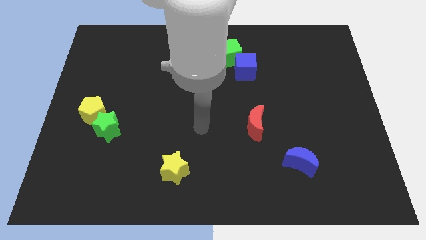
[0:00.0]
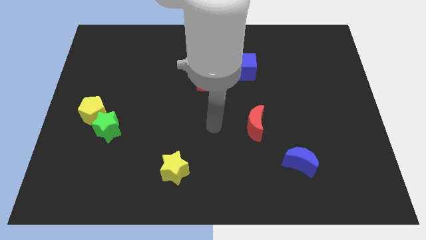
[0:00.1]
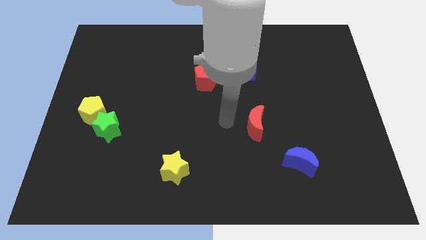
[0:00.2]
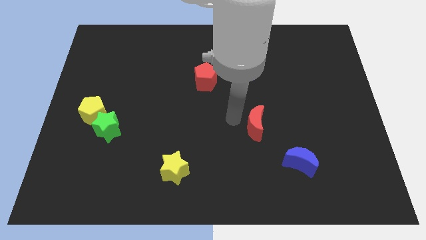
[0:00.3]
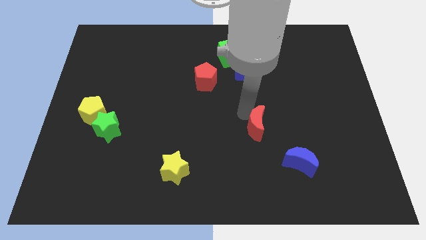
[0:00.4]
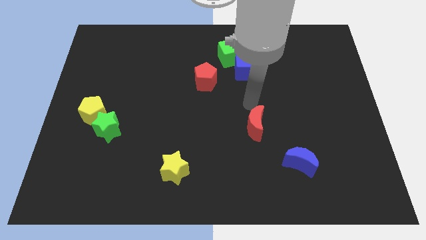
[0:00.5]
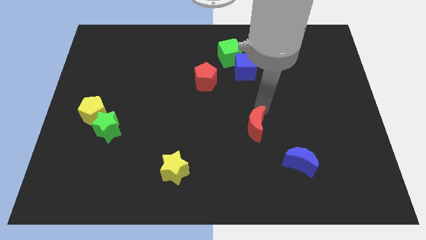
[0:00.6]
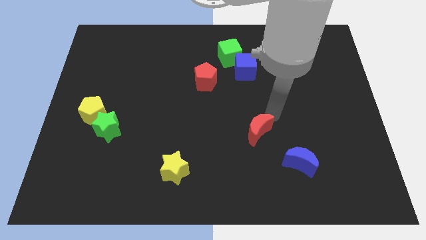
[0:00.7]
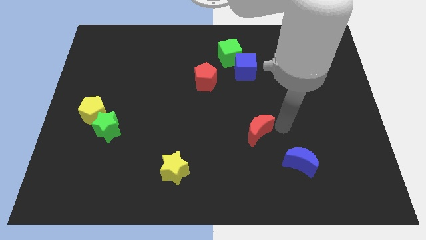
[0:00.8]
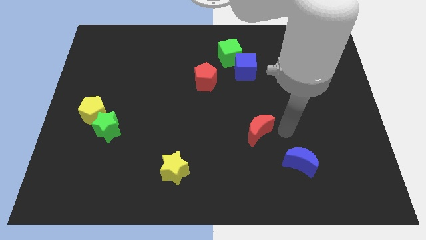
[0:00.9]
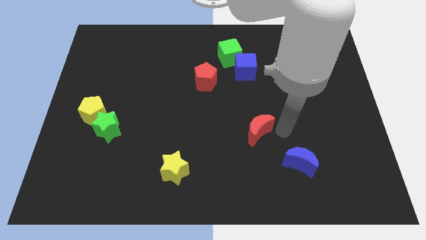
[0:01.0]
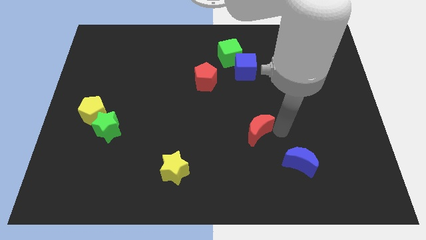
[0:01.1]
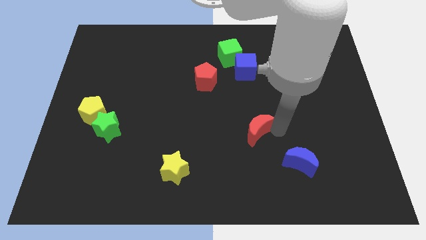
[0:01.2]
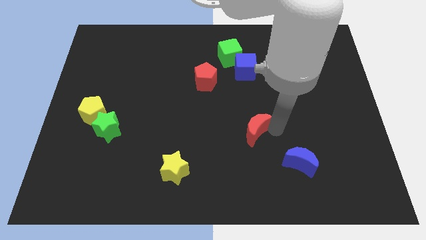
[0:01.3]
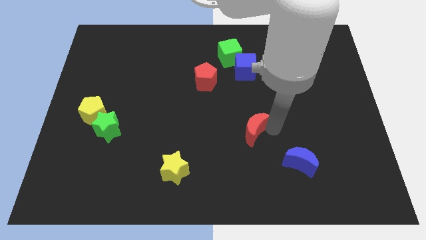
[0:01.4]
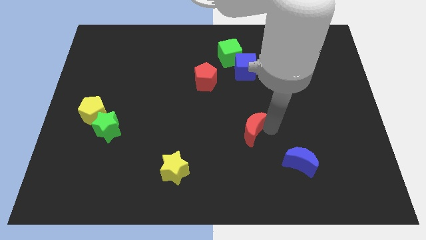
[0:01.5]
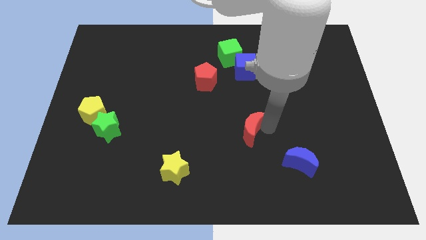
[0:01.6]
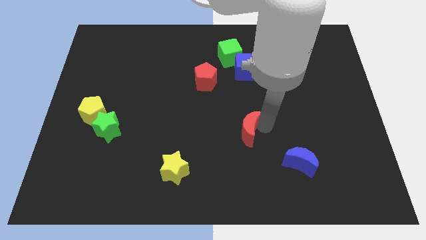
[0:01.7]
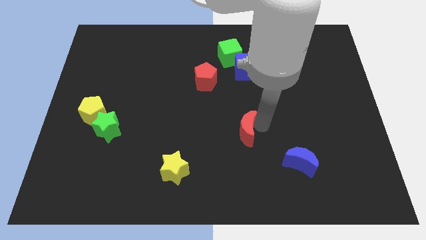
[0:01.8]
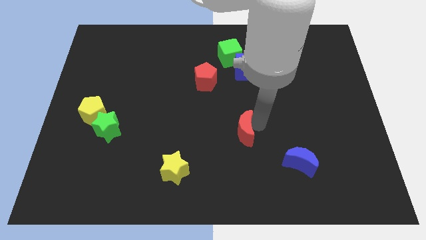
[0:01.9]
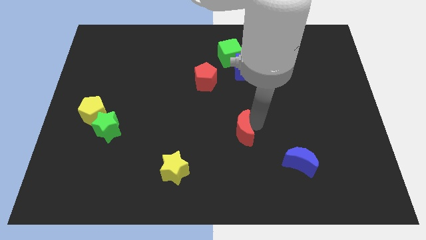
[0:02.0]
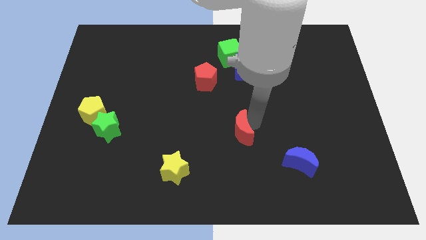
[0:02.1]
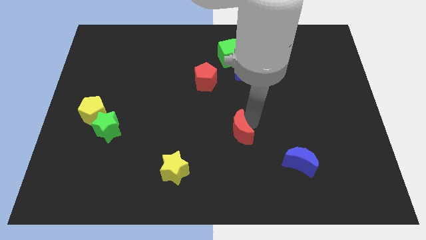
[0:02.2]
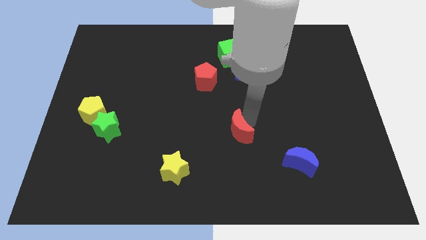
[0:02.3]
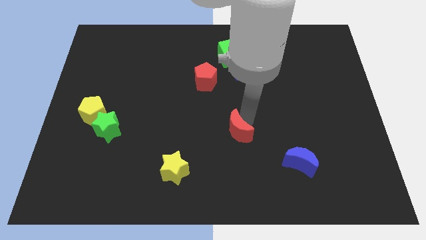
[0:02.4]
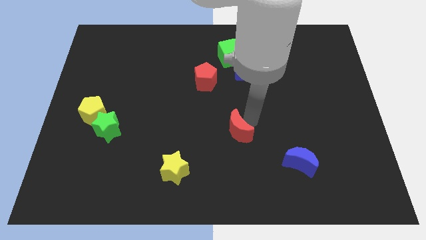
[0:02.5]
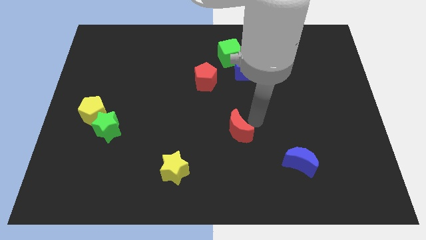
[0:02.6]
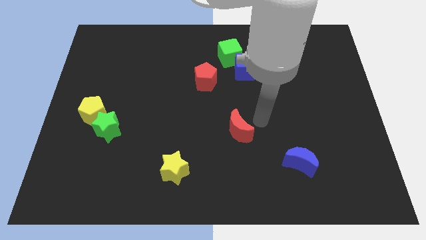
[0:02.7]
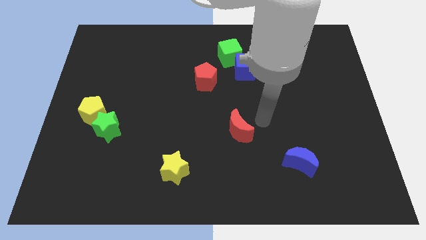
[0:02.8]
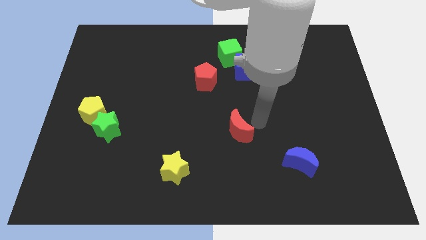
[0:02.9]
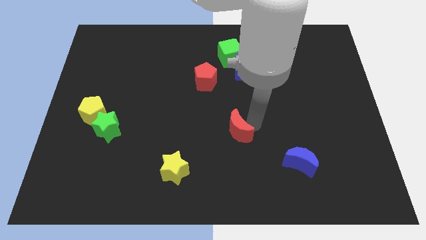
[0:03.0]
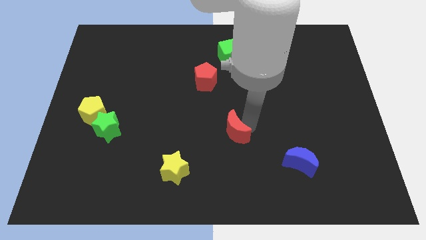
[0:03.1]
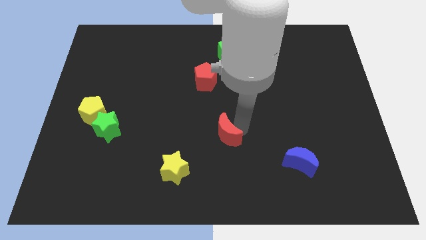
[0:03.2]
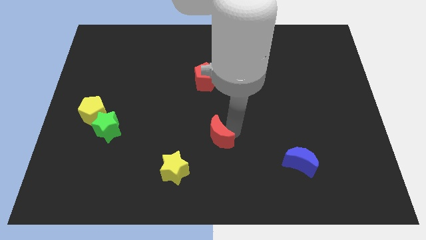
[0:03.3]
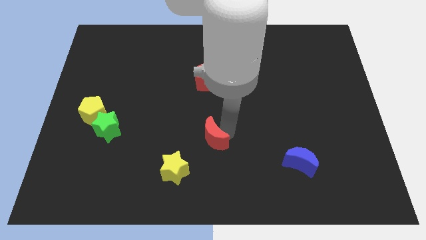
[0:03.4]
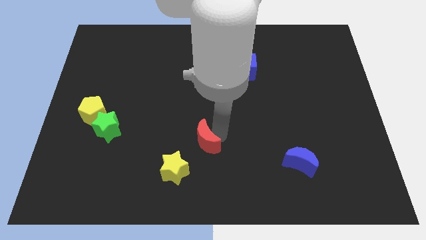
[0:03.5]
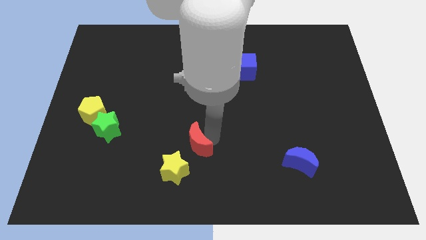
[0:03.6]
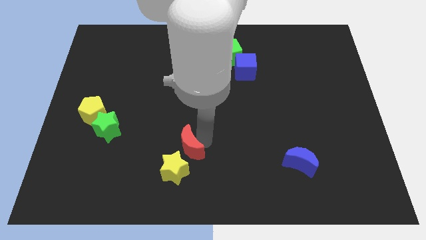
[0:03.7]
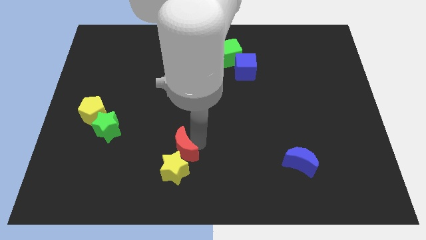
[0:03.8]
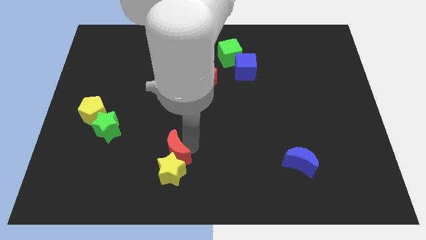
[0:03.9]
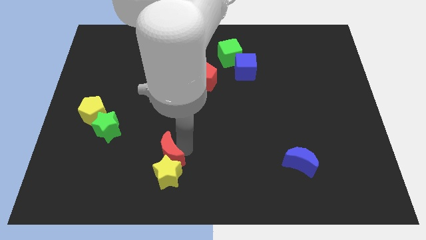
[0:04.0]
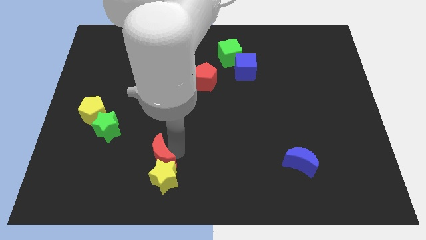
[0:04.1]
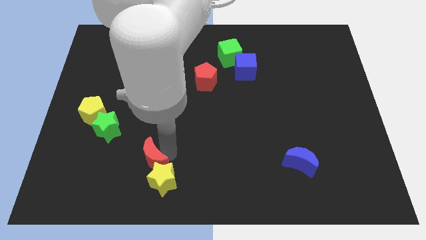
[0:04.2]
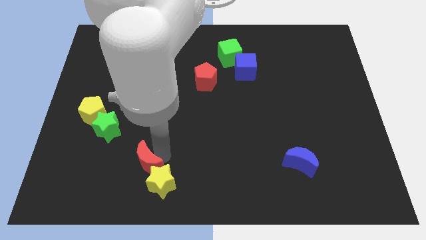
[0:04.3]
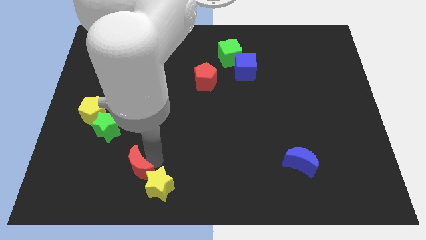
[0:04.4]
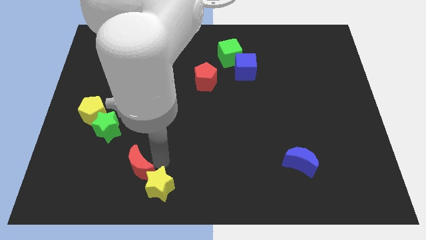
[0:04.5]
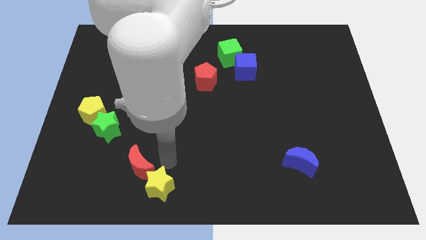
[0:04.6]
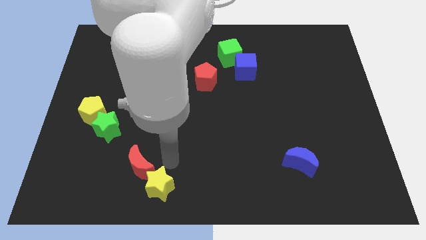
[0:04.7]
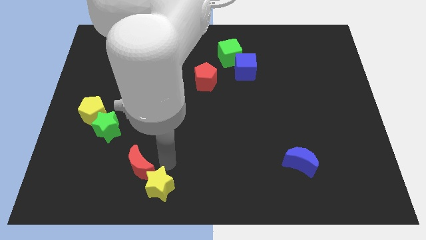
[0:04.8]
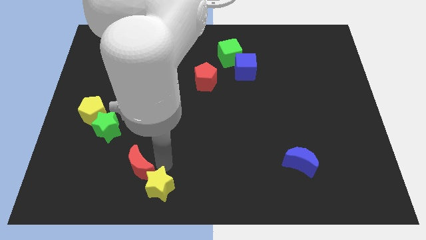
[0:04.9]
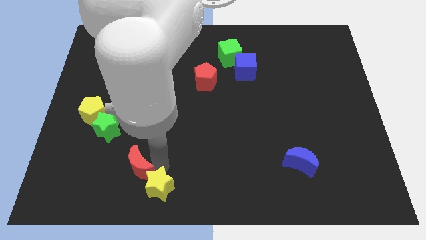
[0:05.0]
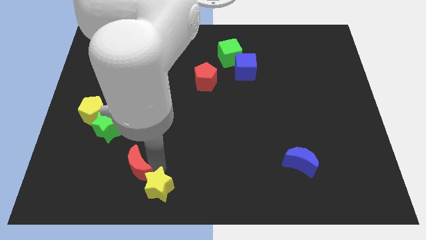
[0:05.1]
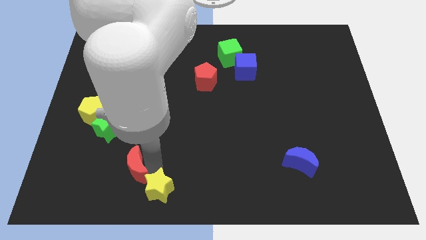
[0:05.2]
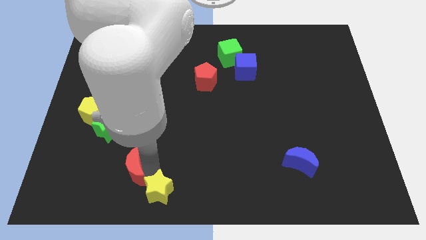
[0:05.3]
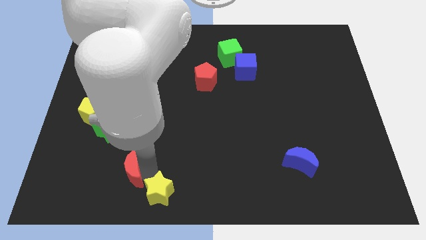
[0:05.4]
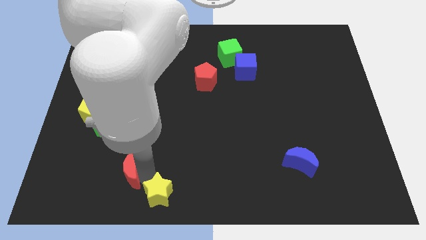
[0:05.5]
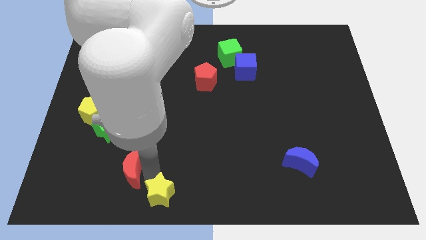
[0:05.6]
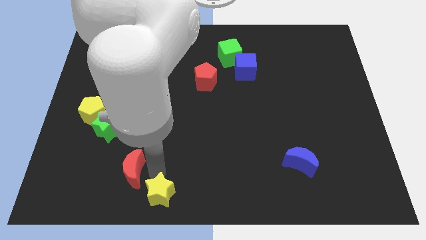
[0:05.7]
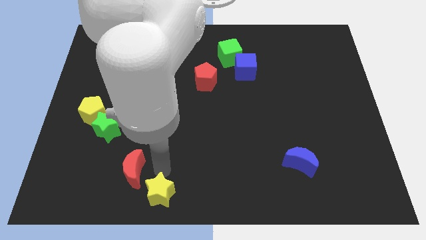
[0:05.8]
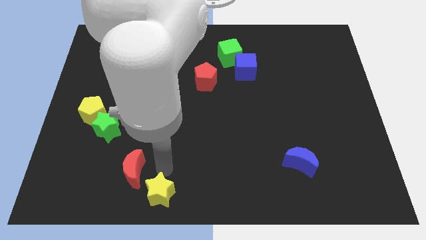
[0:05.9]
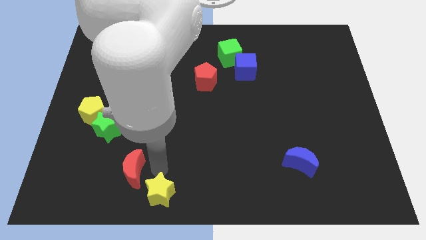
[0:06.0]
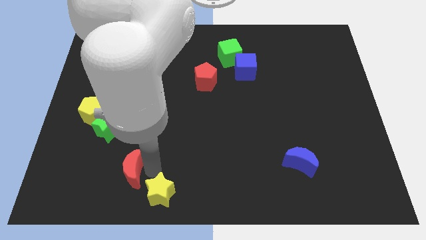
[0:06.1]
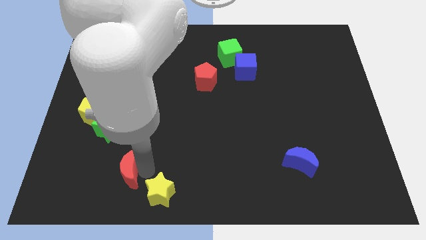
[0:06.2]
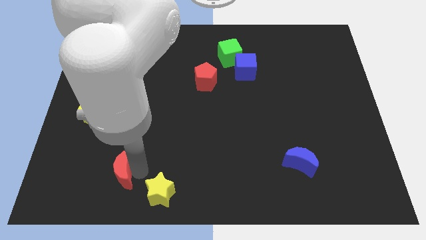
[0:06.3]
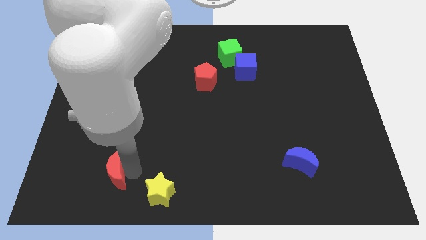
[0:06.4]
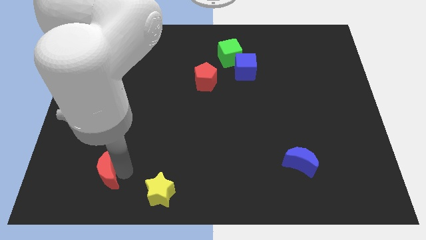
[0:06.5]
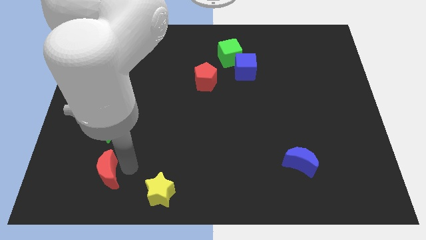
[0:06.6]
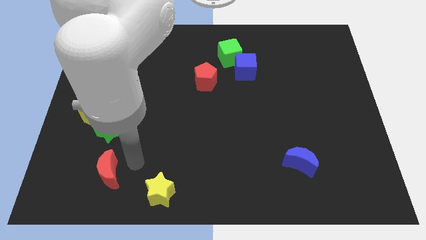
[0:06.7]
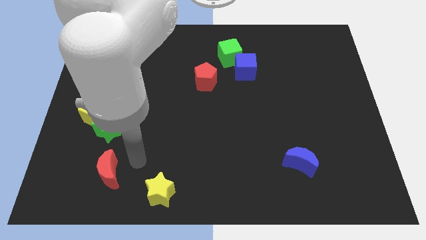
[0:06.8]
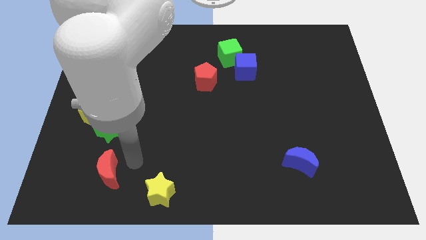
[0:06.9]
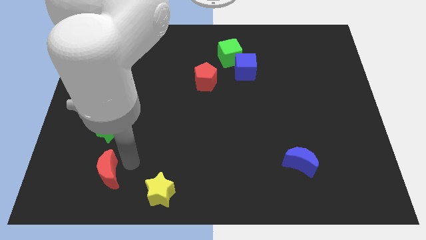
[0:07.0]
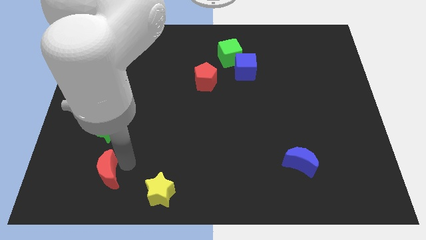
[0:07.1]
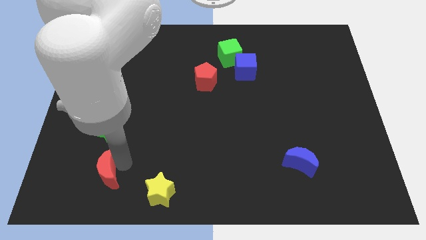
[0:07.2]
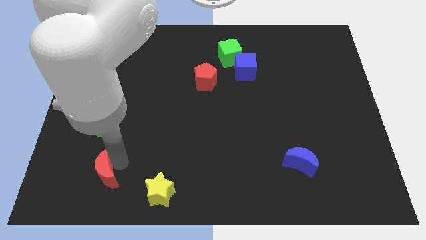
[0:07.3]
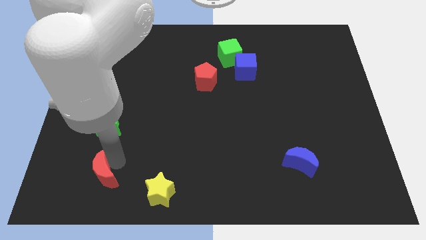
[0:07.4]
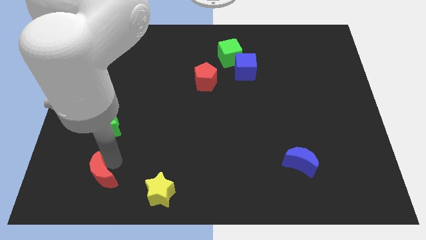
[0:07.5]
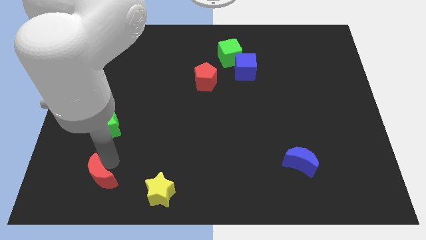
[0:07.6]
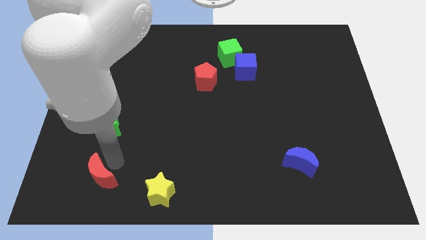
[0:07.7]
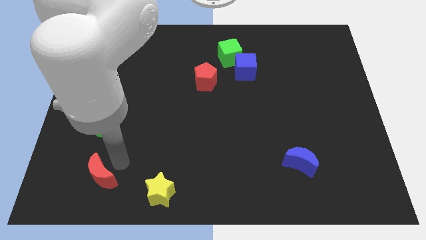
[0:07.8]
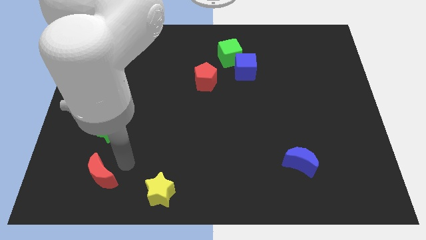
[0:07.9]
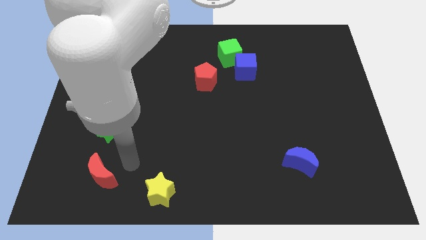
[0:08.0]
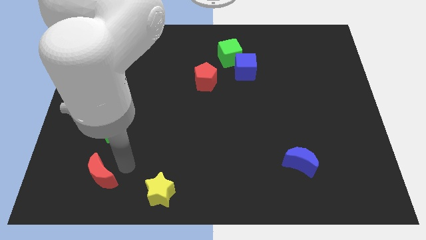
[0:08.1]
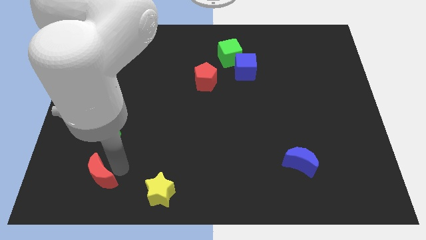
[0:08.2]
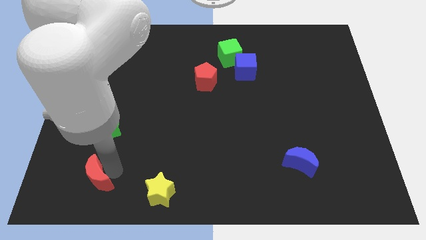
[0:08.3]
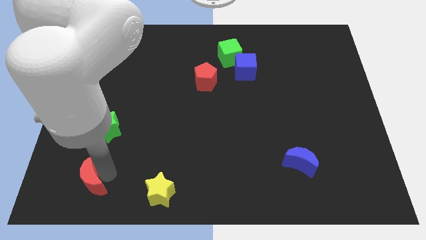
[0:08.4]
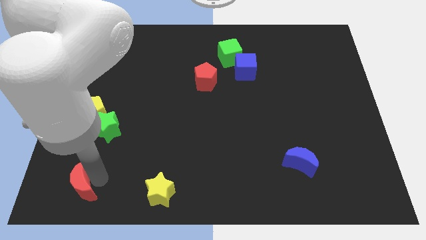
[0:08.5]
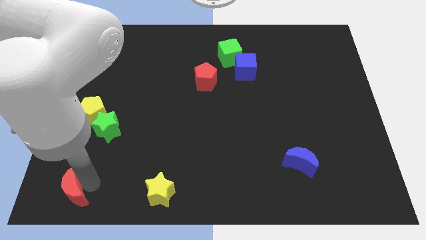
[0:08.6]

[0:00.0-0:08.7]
move the red moon to the bottom left
